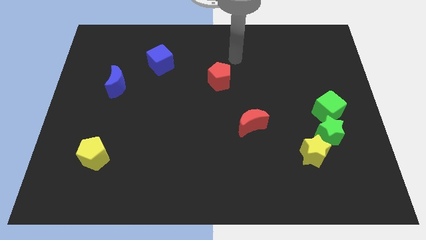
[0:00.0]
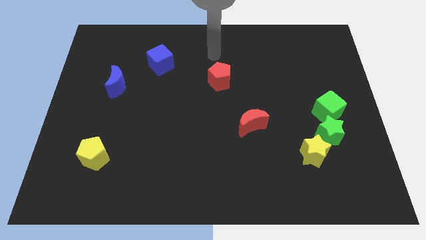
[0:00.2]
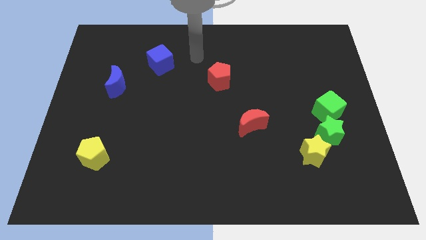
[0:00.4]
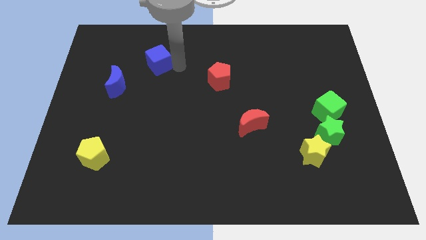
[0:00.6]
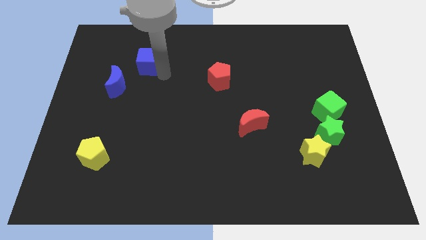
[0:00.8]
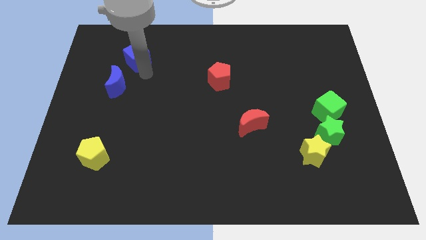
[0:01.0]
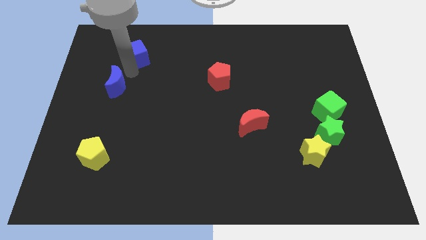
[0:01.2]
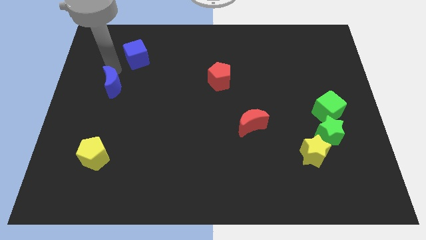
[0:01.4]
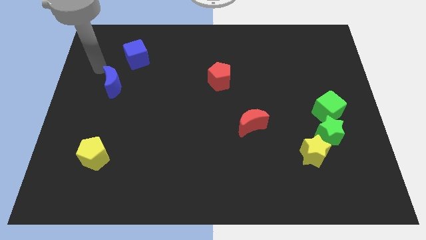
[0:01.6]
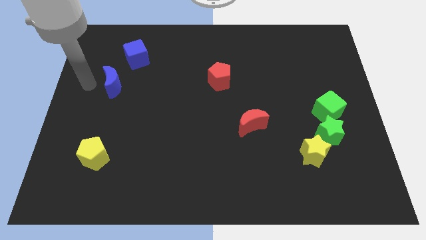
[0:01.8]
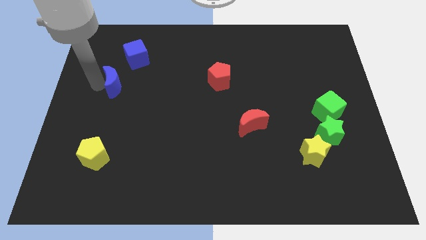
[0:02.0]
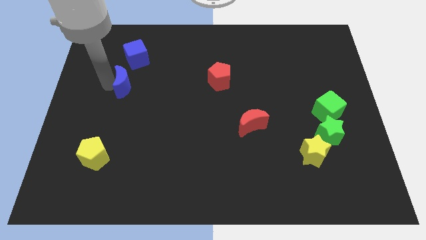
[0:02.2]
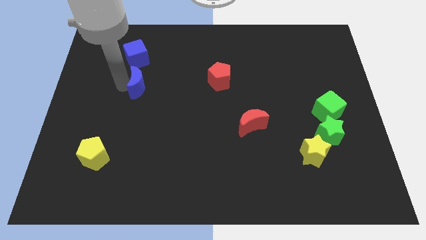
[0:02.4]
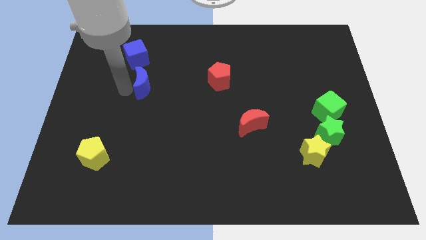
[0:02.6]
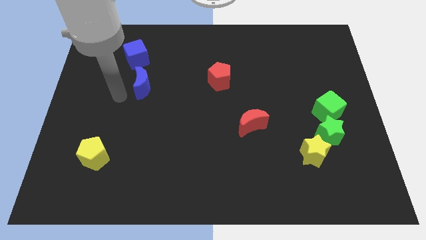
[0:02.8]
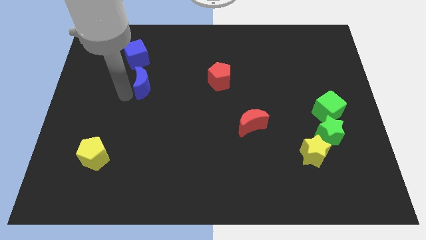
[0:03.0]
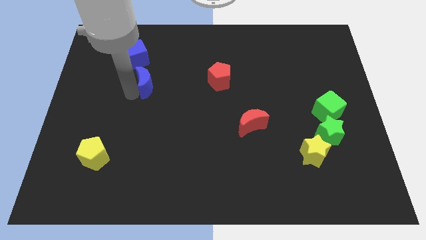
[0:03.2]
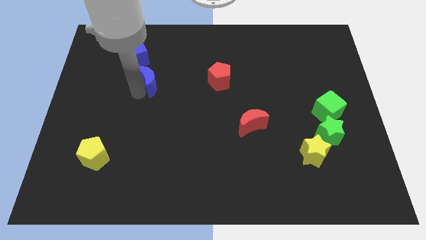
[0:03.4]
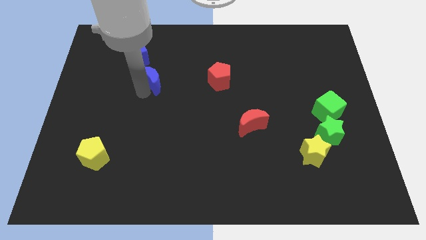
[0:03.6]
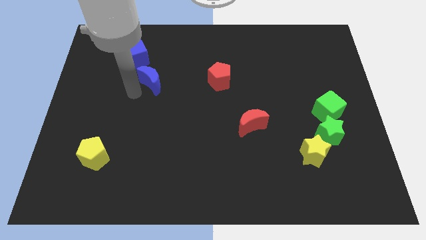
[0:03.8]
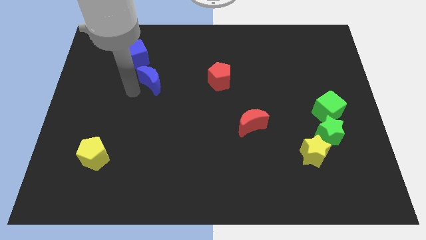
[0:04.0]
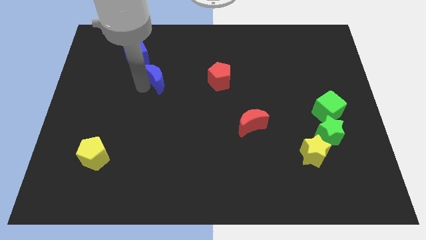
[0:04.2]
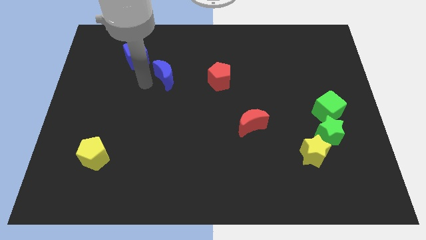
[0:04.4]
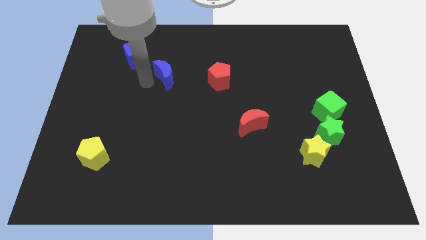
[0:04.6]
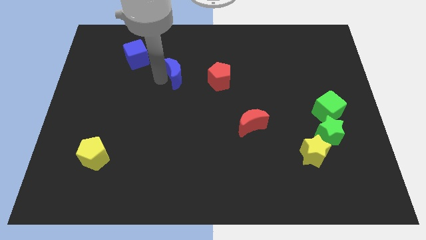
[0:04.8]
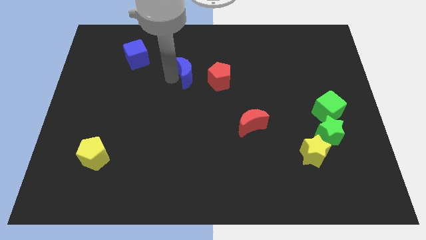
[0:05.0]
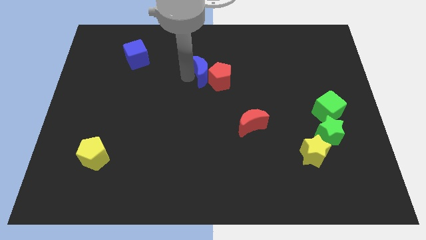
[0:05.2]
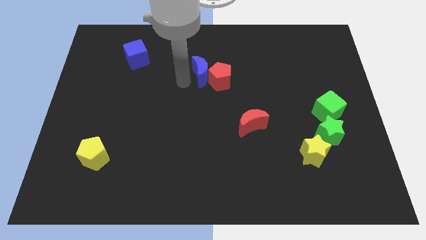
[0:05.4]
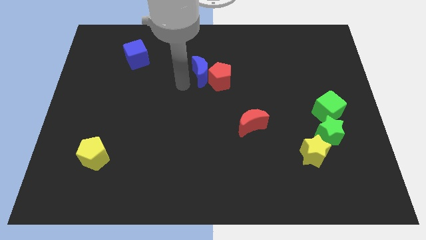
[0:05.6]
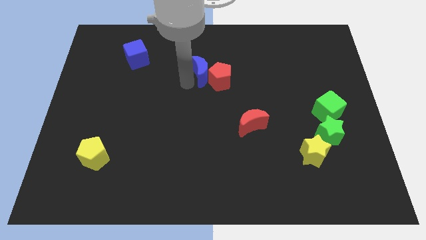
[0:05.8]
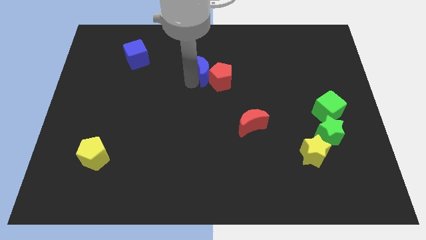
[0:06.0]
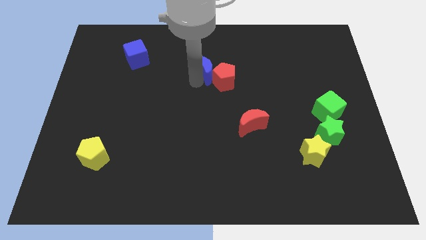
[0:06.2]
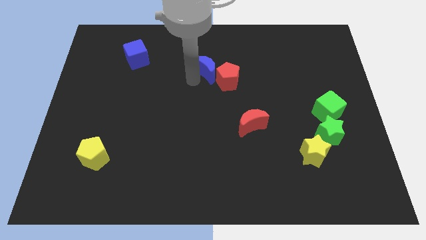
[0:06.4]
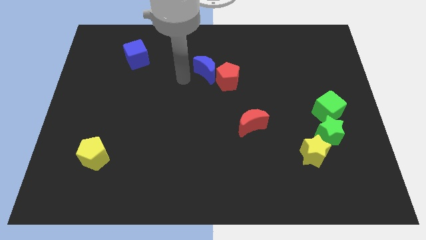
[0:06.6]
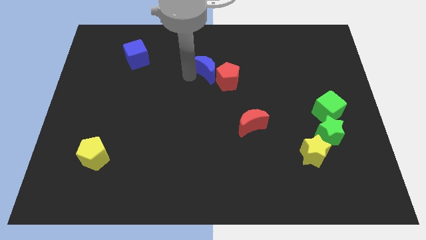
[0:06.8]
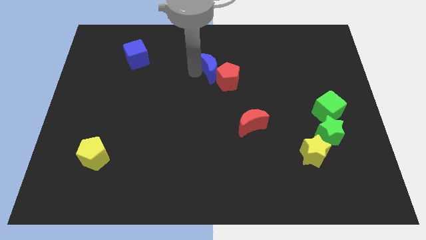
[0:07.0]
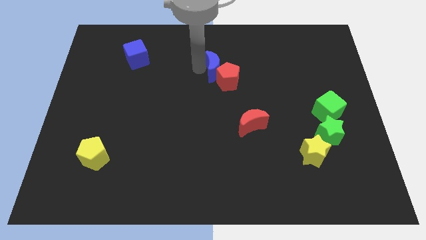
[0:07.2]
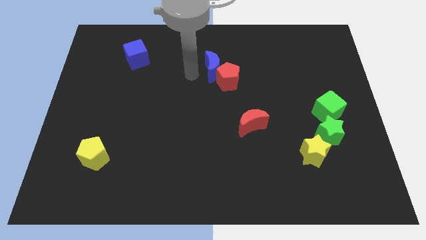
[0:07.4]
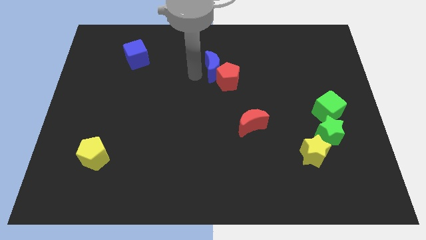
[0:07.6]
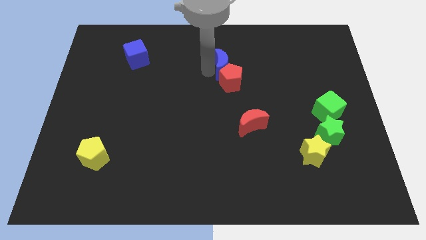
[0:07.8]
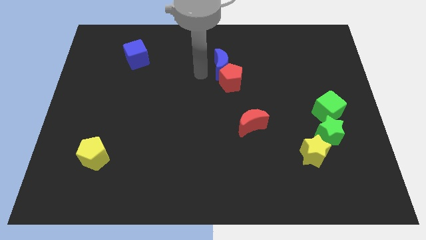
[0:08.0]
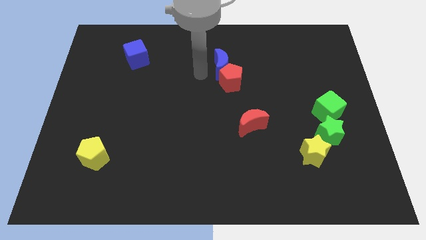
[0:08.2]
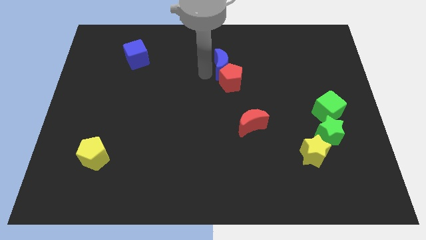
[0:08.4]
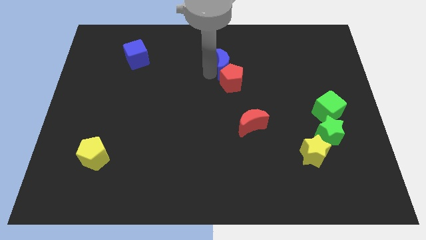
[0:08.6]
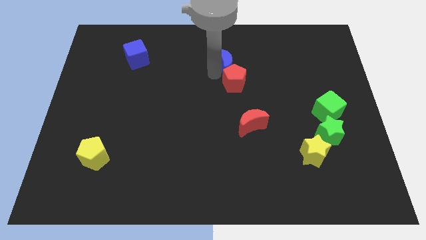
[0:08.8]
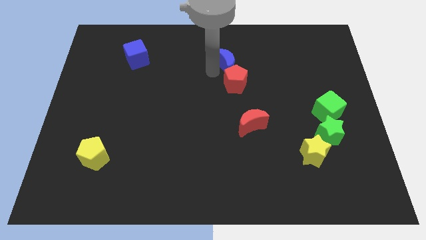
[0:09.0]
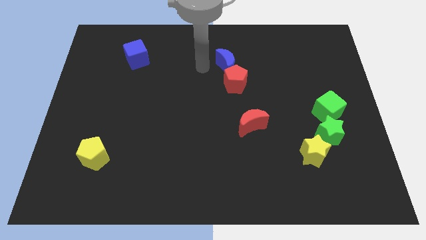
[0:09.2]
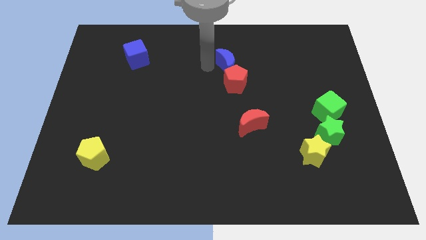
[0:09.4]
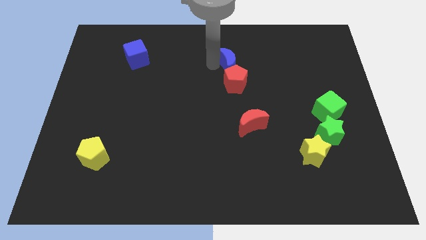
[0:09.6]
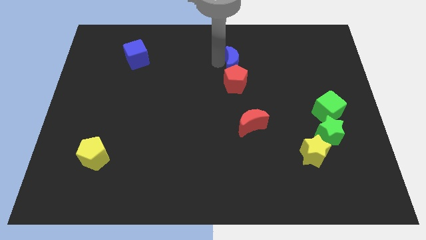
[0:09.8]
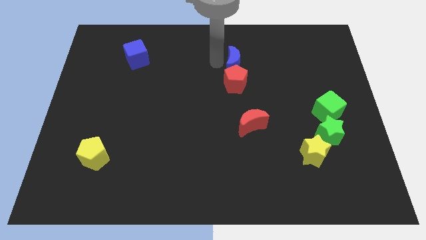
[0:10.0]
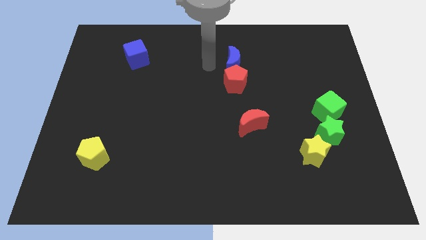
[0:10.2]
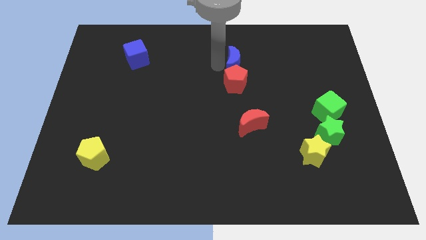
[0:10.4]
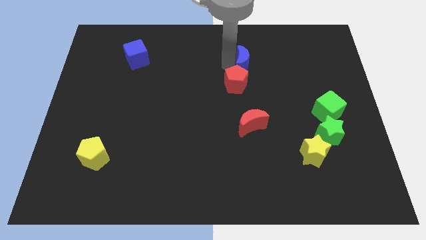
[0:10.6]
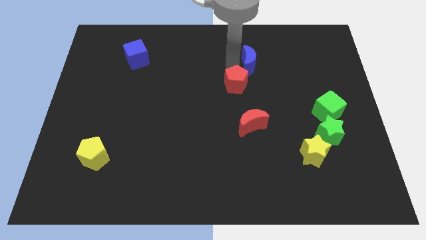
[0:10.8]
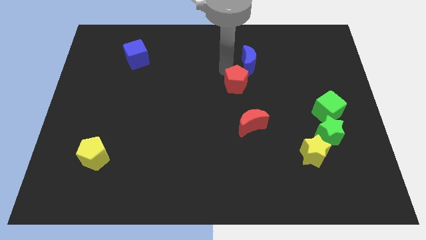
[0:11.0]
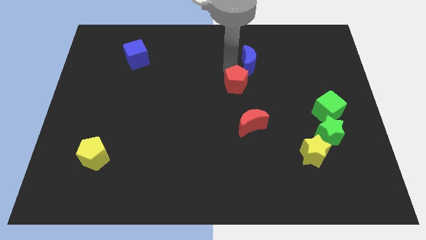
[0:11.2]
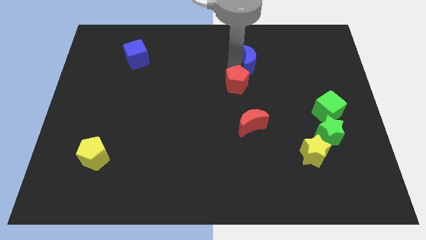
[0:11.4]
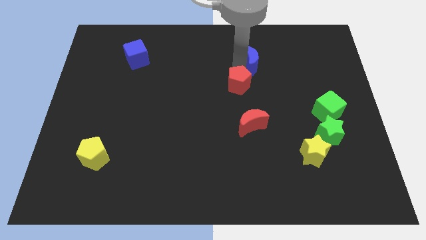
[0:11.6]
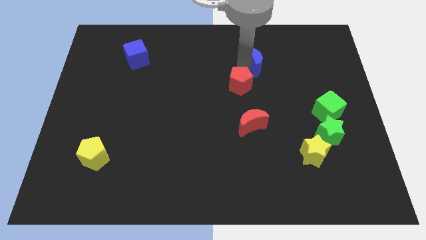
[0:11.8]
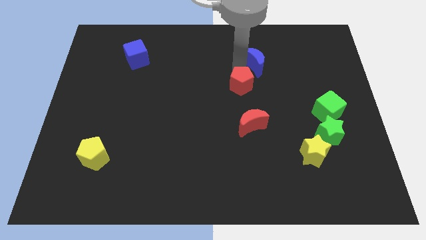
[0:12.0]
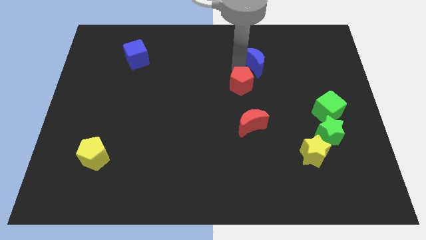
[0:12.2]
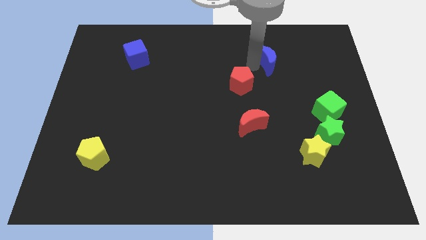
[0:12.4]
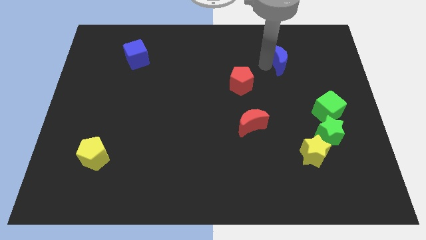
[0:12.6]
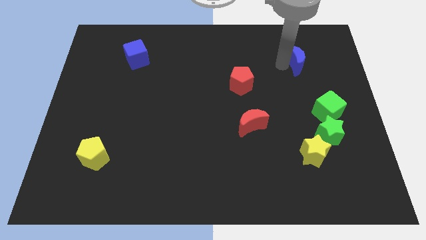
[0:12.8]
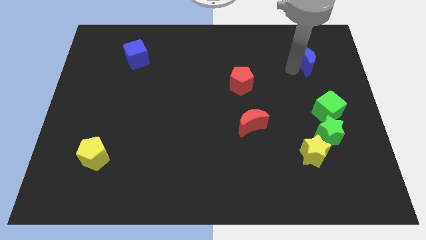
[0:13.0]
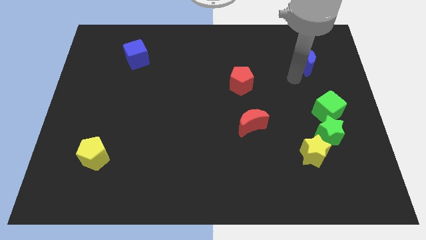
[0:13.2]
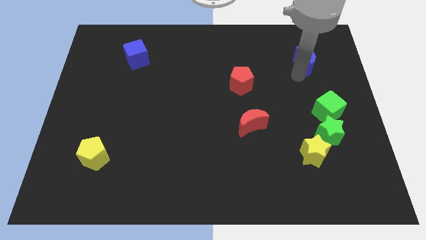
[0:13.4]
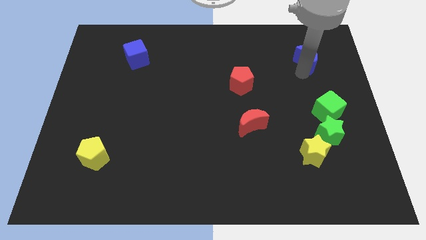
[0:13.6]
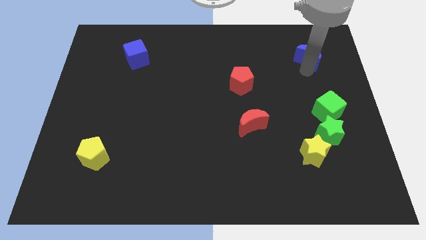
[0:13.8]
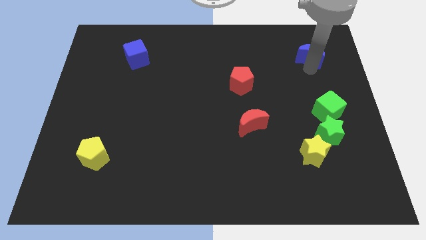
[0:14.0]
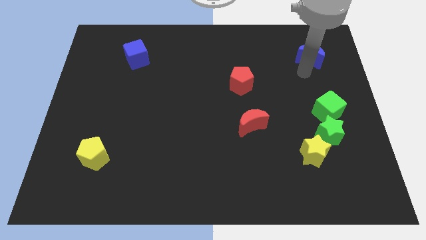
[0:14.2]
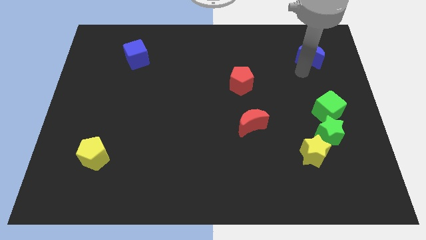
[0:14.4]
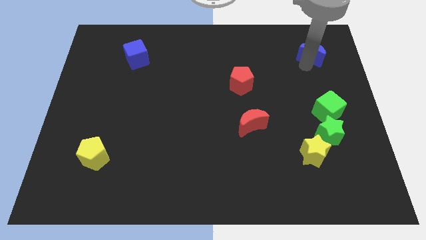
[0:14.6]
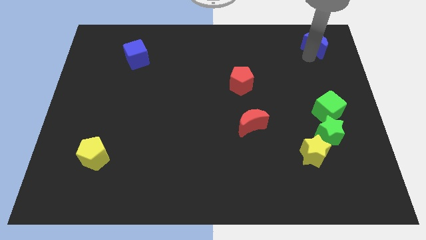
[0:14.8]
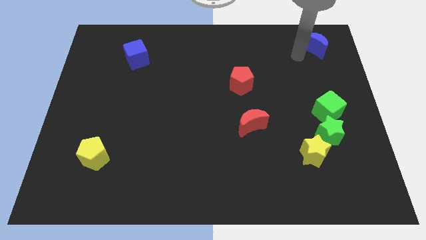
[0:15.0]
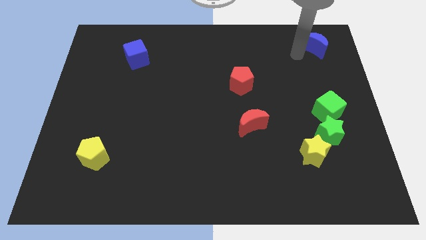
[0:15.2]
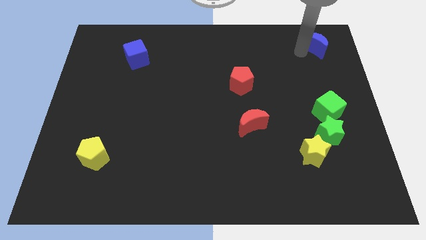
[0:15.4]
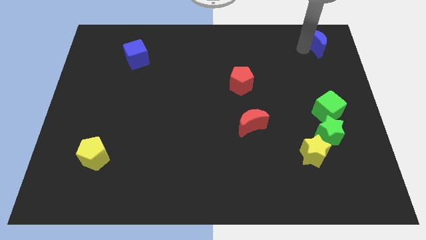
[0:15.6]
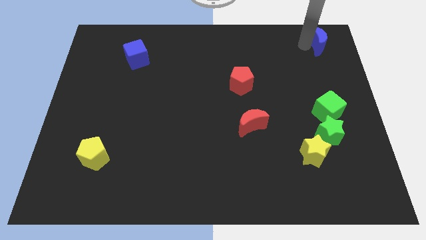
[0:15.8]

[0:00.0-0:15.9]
push the blue moon to the top right of the board
